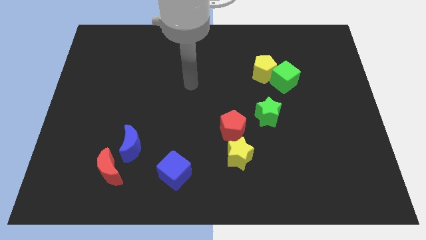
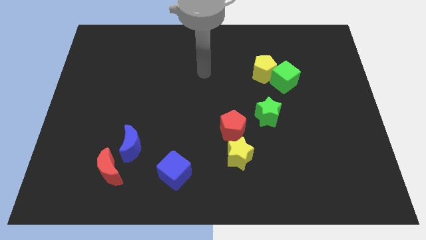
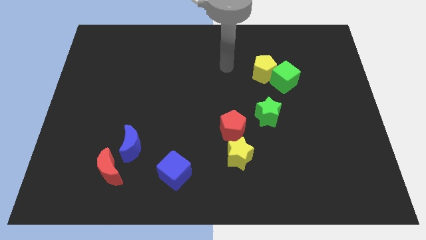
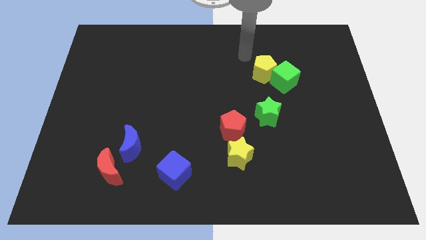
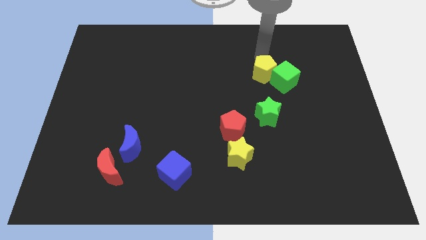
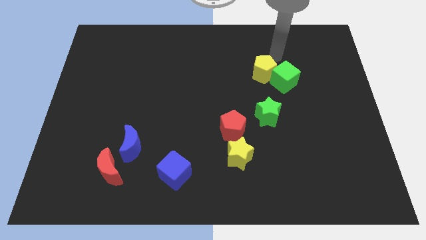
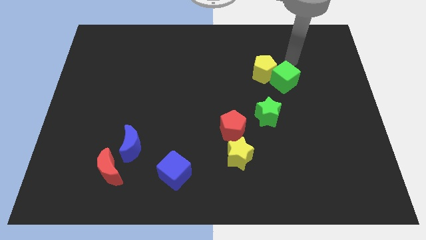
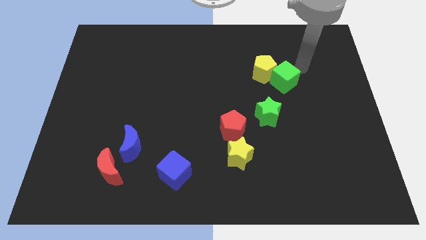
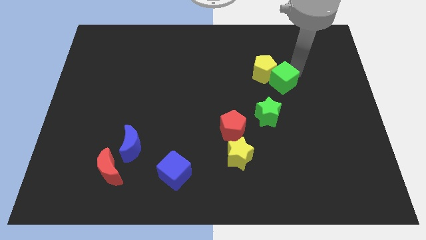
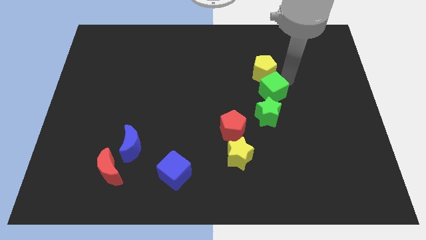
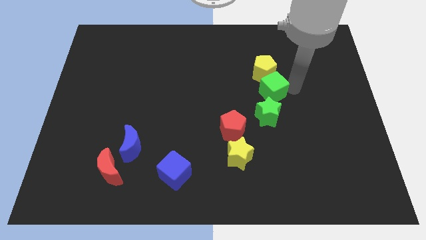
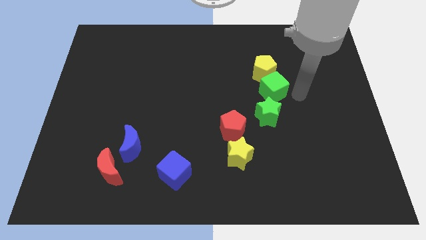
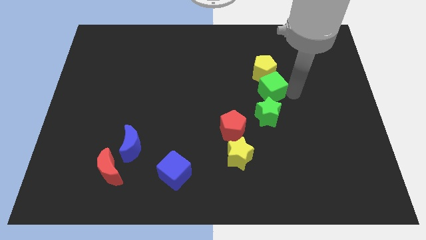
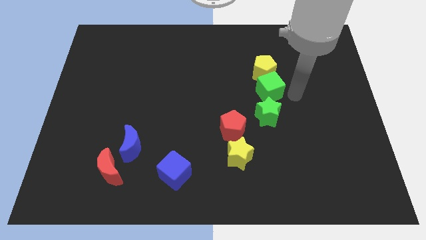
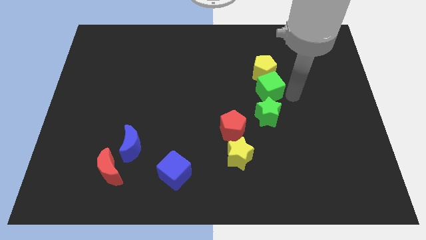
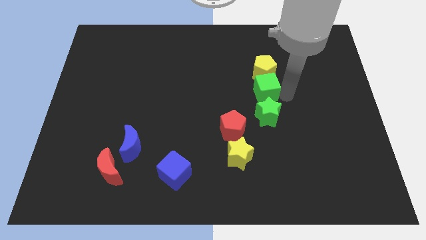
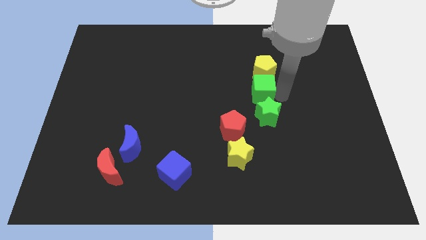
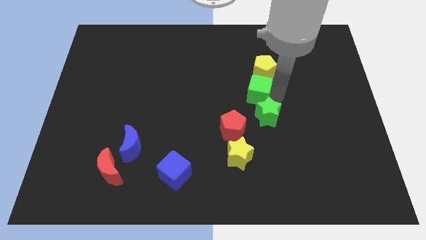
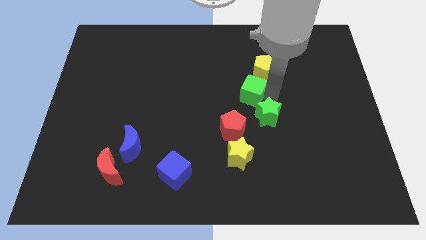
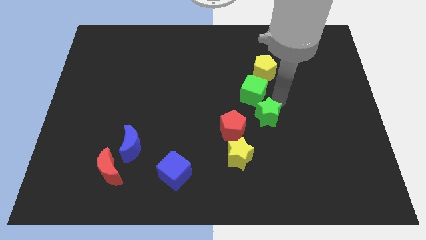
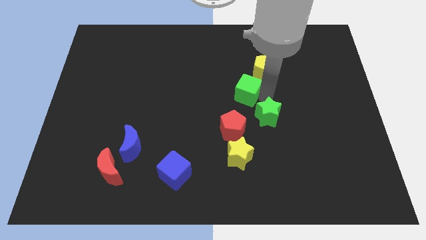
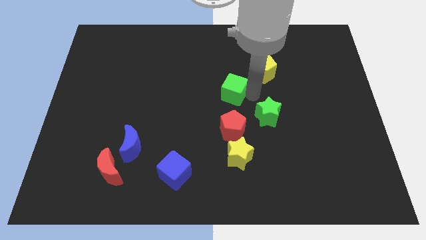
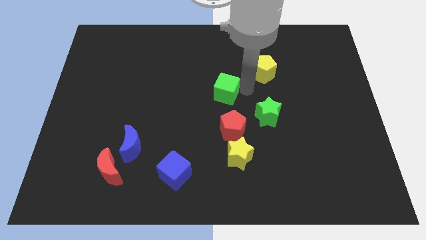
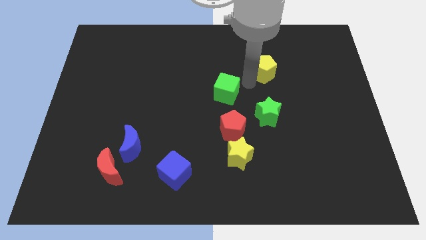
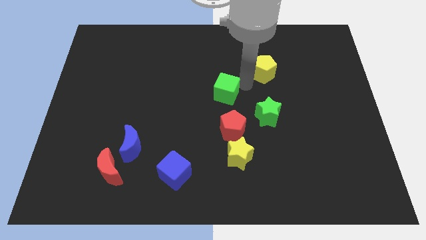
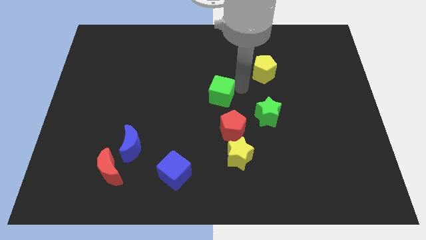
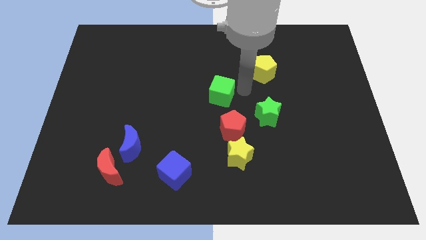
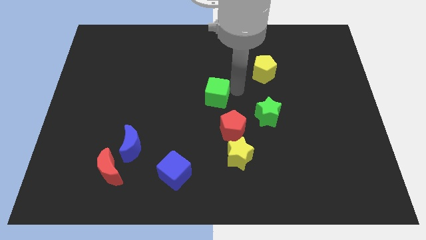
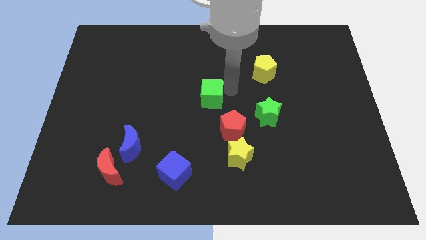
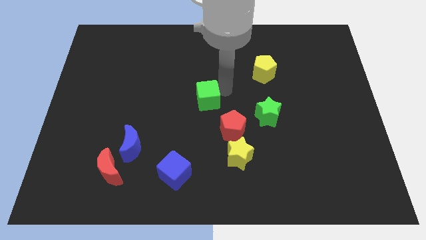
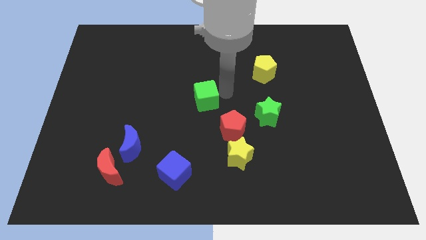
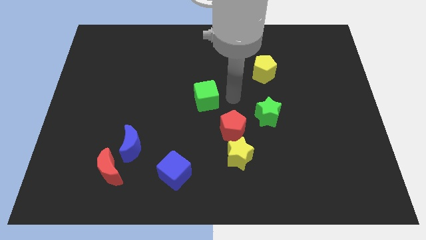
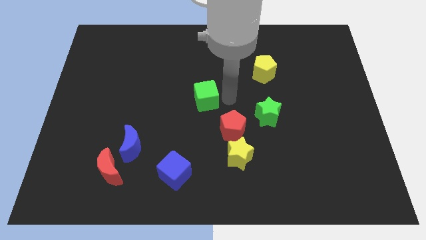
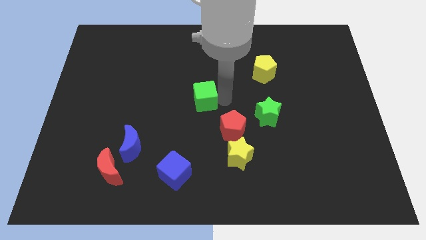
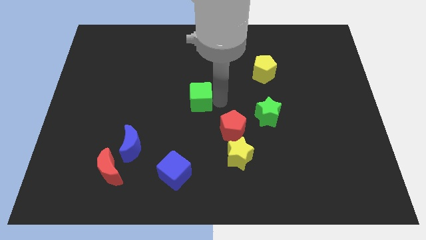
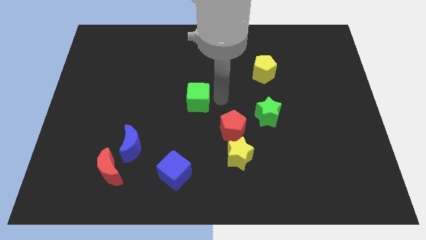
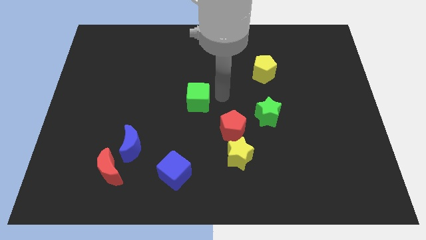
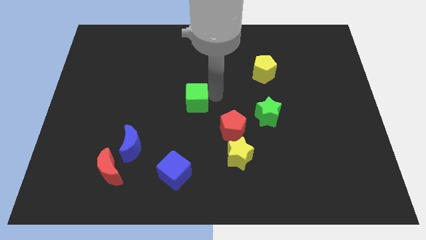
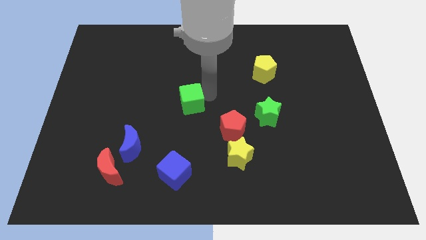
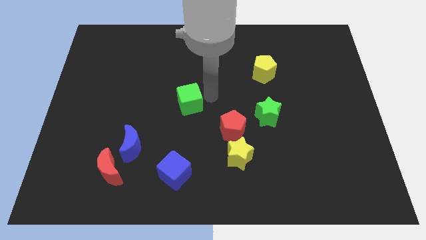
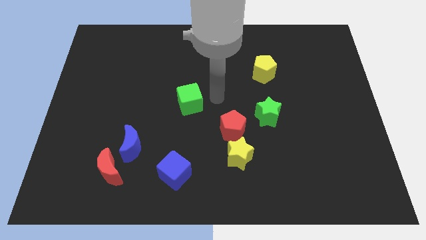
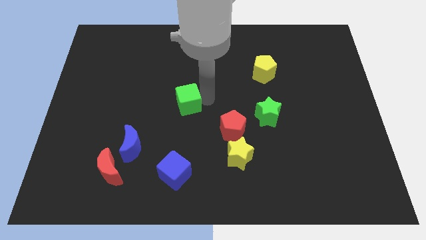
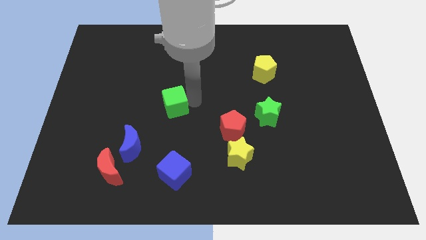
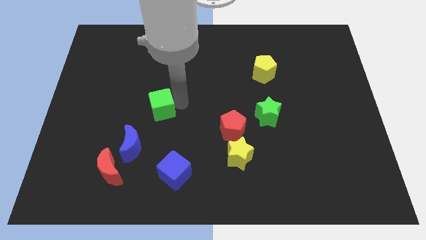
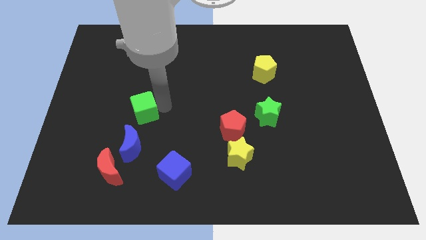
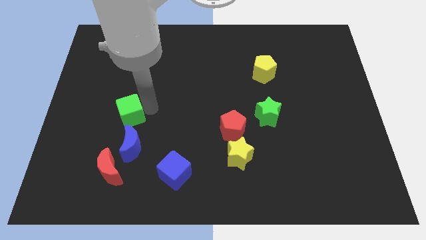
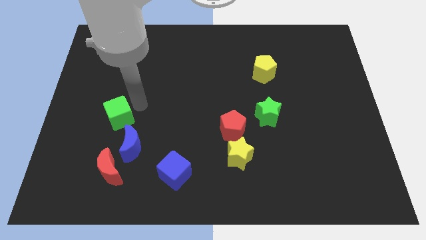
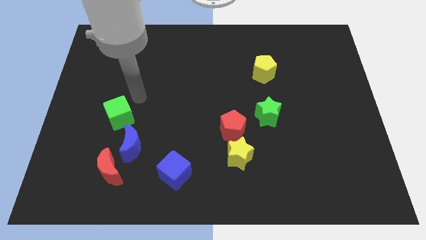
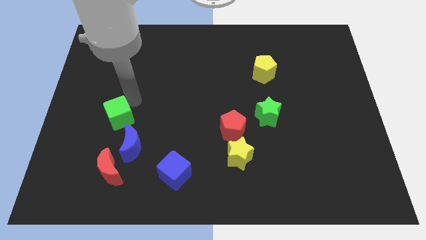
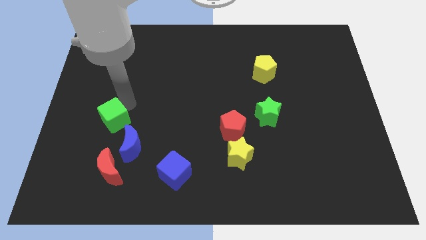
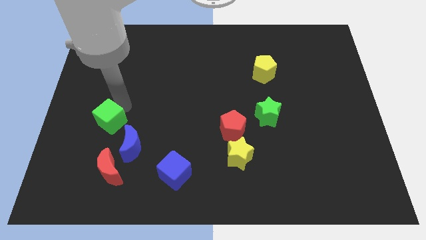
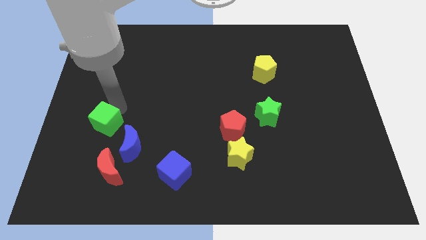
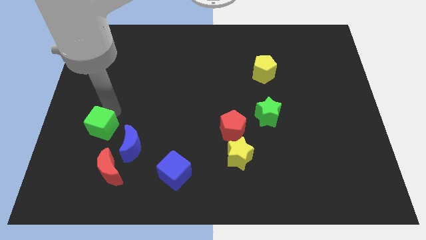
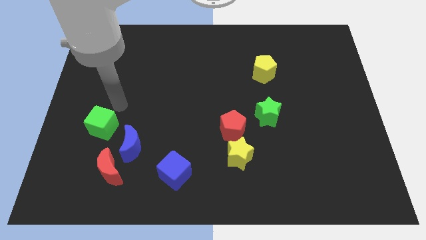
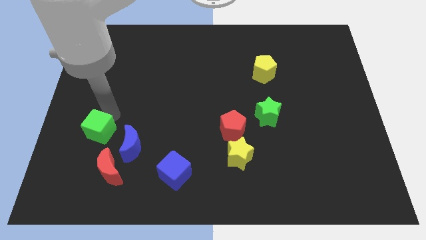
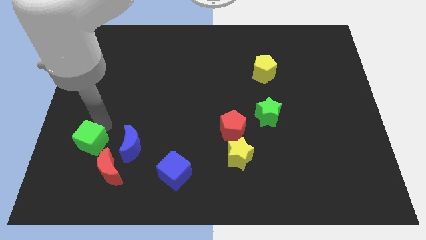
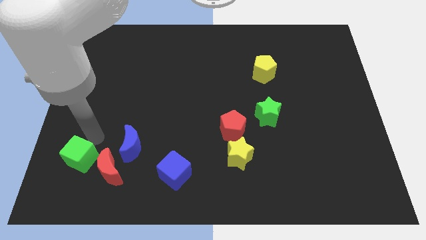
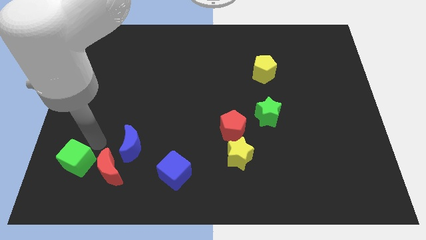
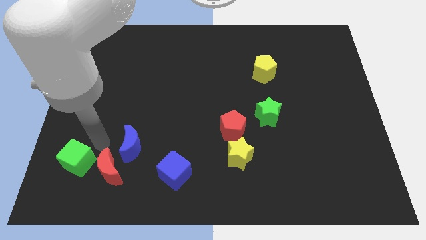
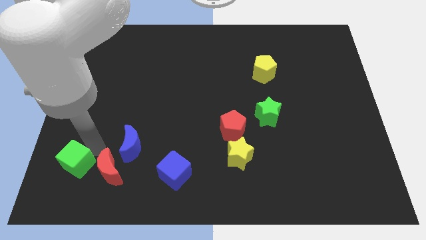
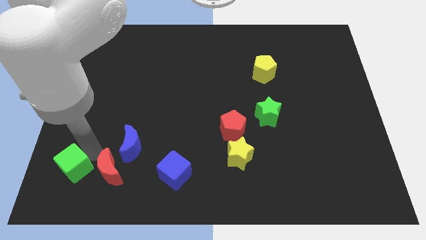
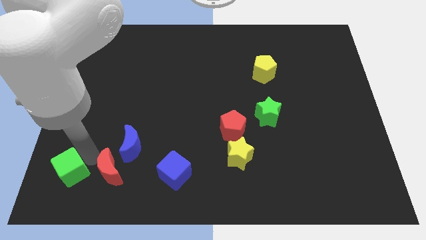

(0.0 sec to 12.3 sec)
move the green cube to the bottom left

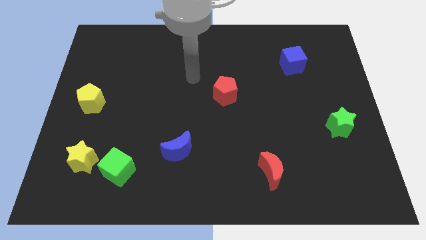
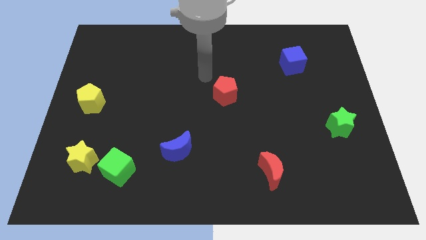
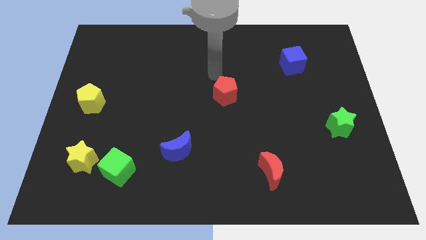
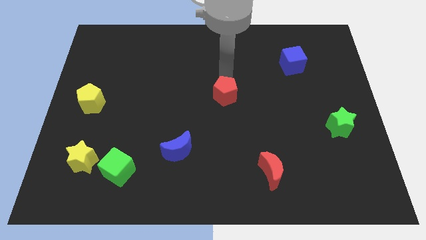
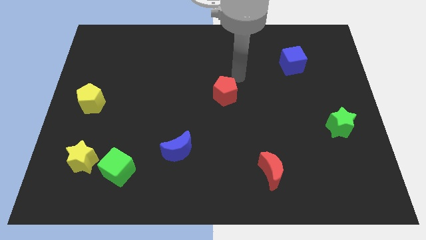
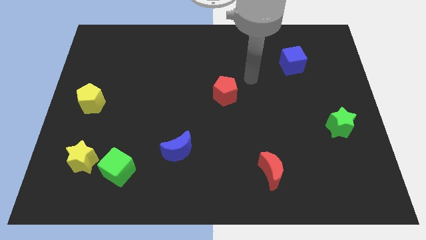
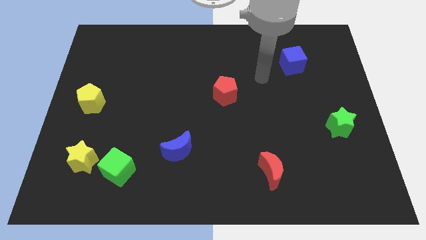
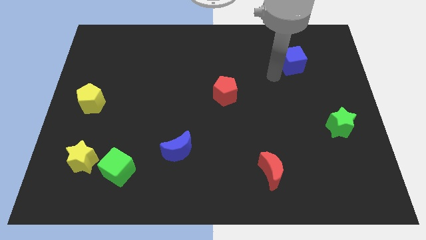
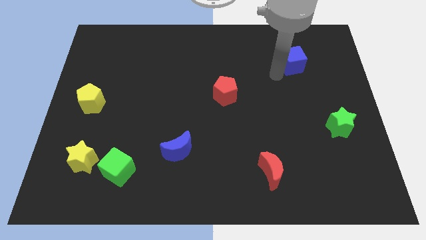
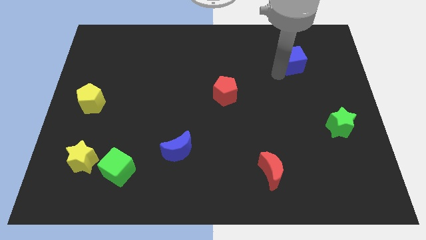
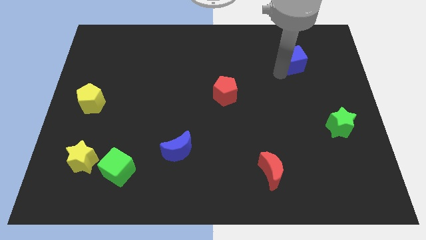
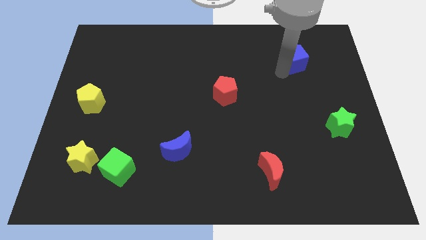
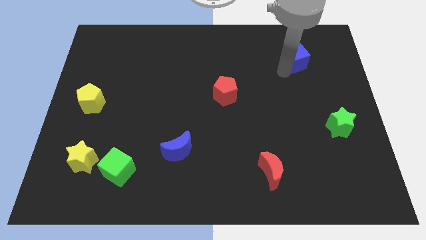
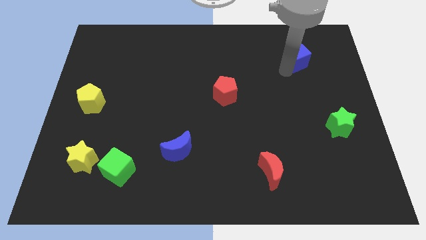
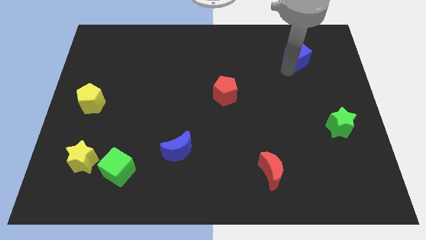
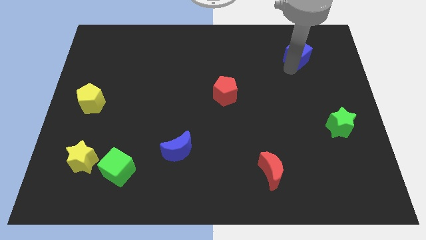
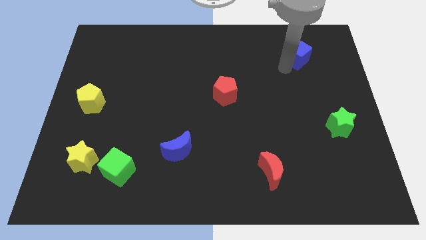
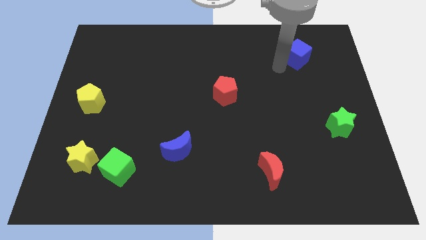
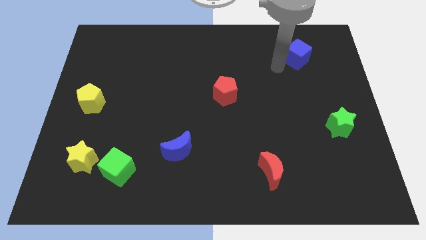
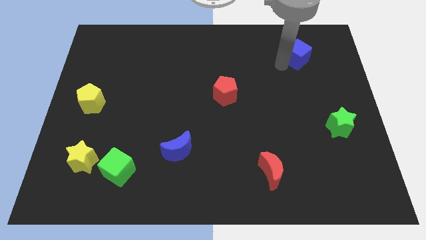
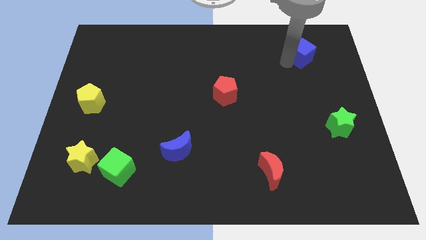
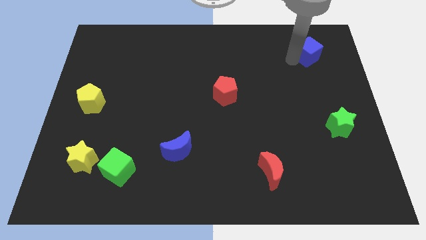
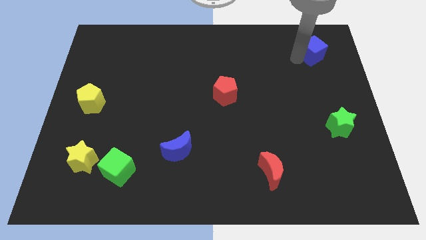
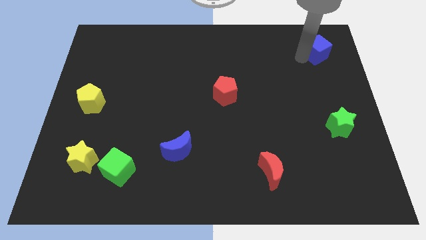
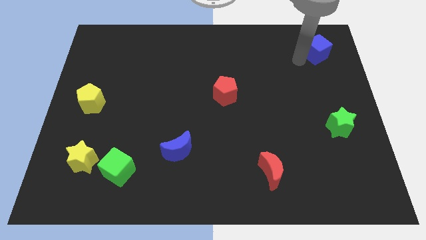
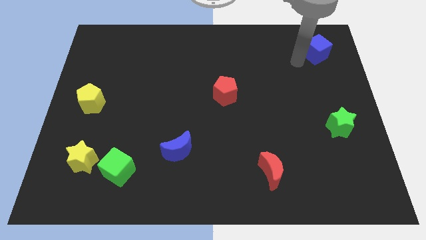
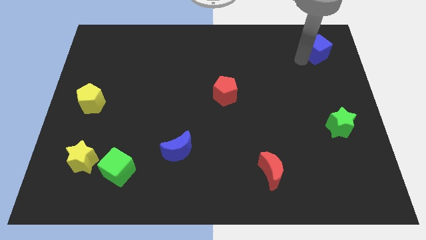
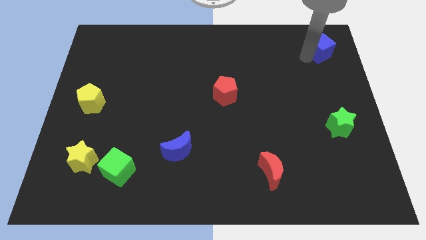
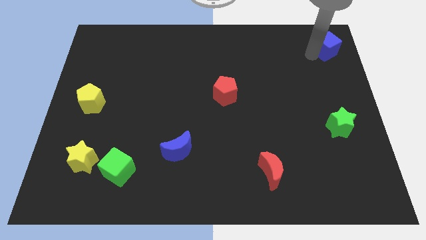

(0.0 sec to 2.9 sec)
move the blue cube to the top right
